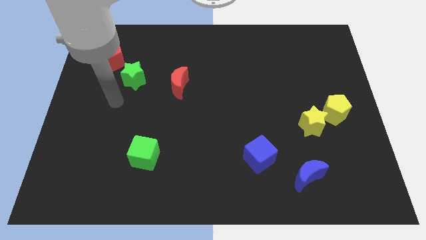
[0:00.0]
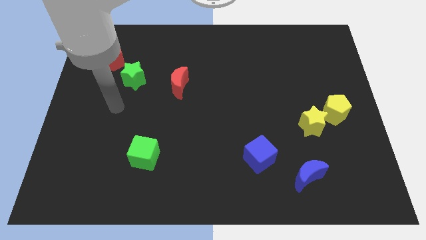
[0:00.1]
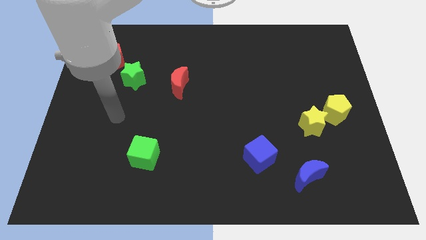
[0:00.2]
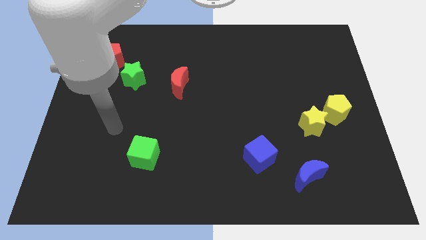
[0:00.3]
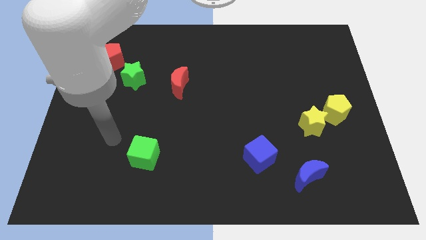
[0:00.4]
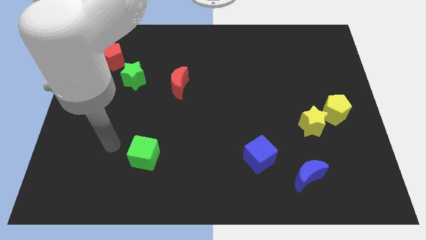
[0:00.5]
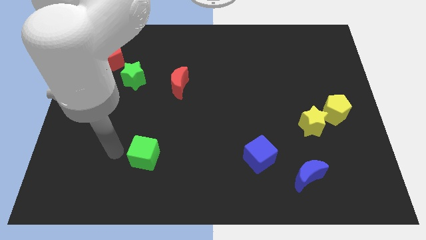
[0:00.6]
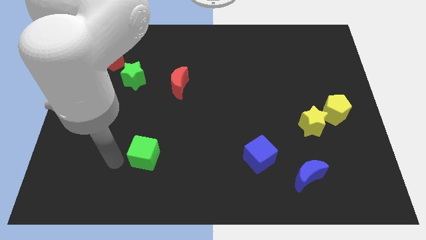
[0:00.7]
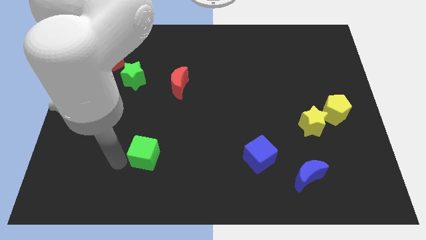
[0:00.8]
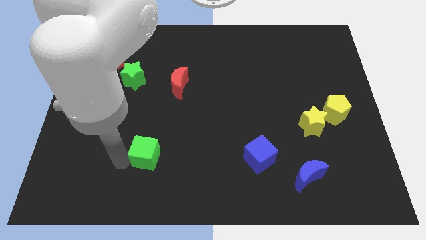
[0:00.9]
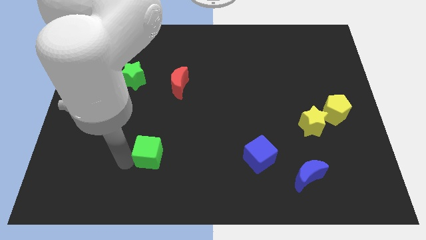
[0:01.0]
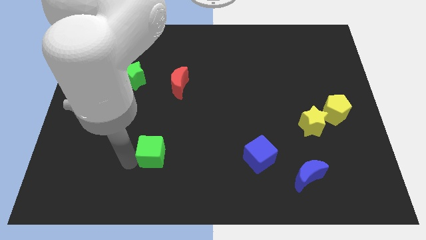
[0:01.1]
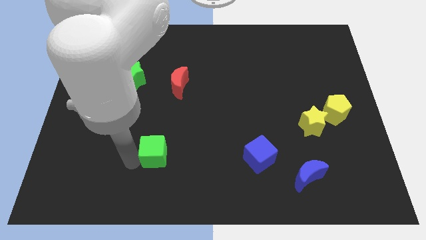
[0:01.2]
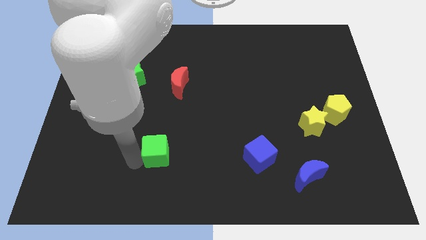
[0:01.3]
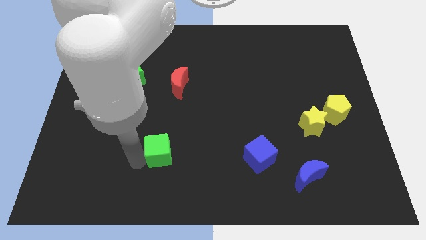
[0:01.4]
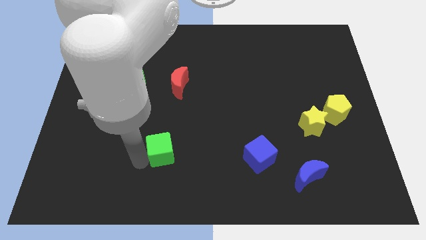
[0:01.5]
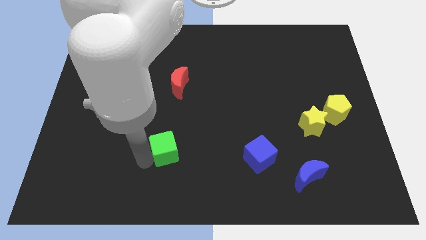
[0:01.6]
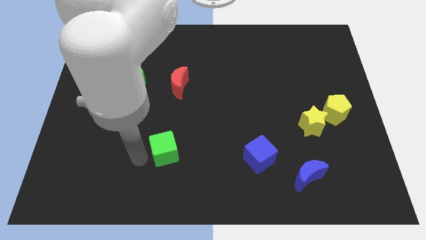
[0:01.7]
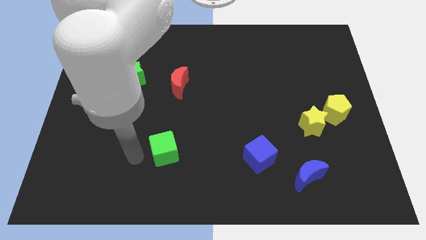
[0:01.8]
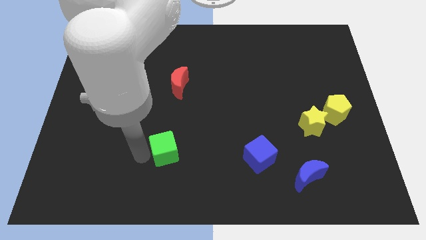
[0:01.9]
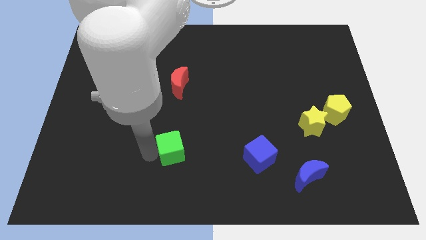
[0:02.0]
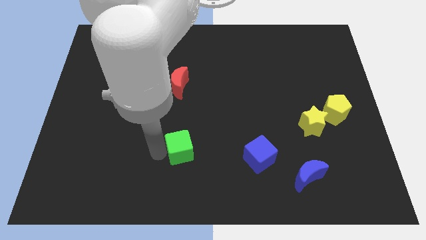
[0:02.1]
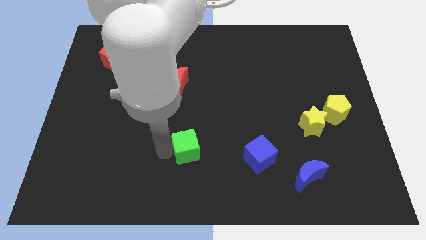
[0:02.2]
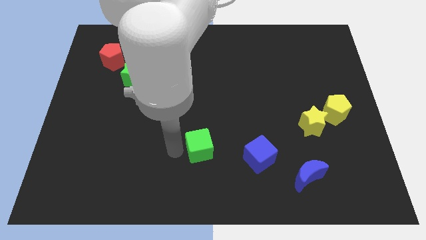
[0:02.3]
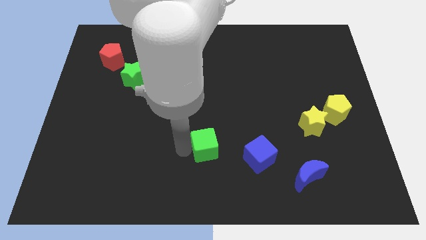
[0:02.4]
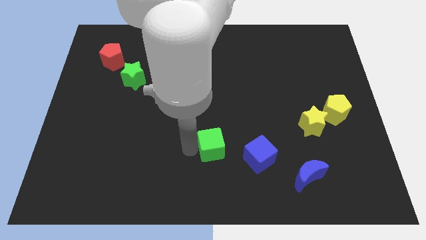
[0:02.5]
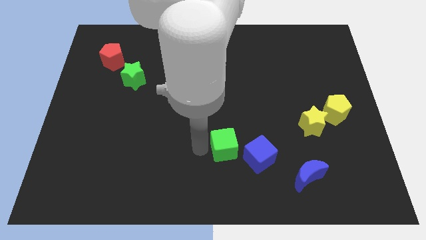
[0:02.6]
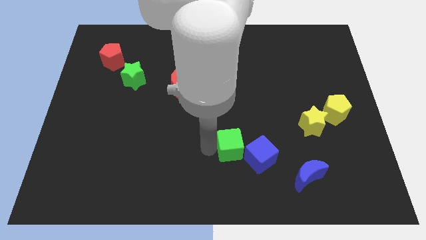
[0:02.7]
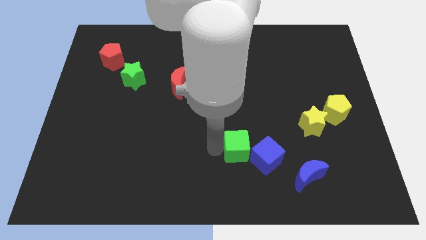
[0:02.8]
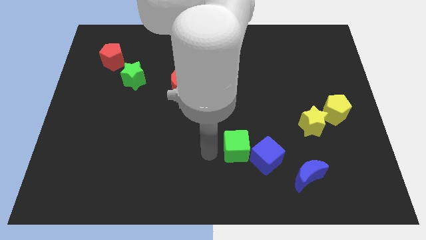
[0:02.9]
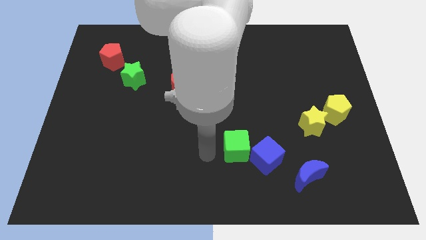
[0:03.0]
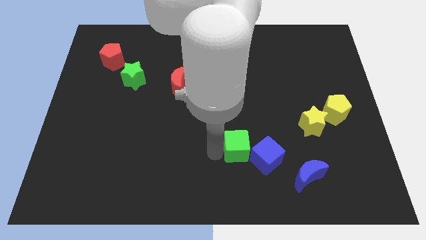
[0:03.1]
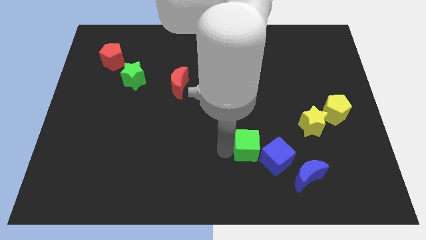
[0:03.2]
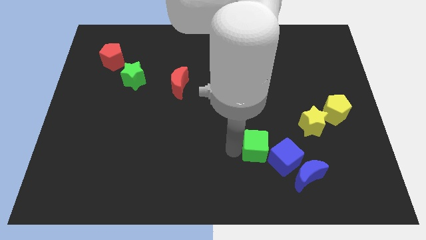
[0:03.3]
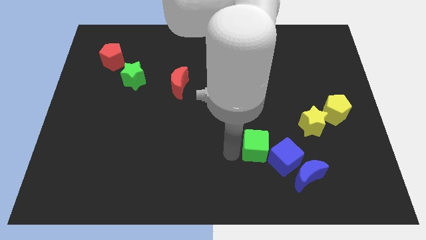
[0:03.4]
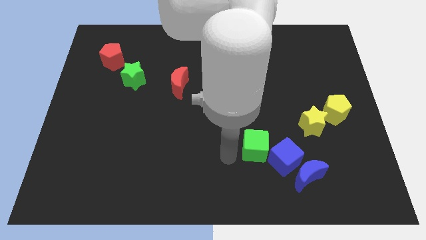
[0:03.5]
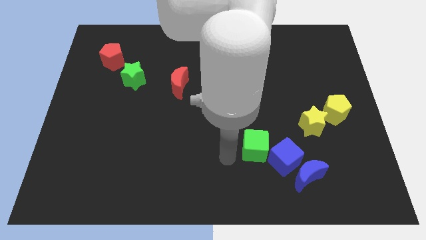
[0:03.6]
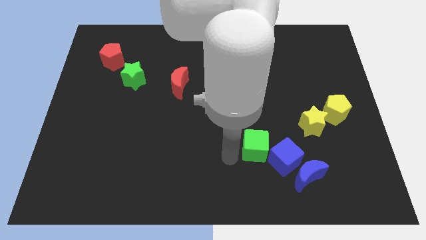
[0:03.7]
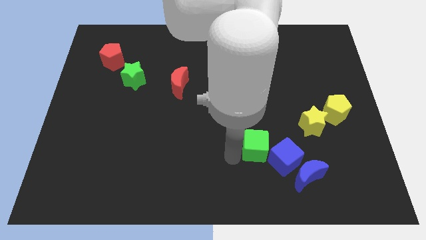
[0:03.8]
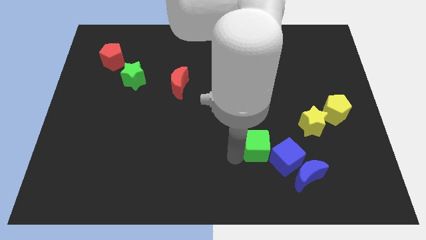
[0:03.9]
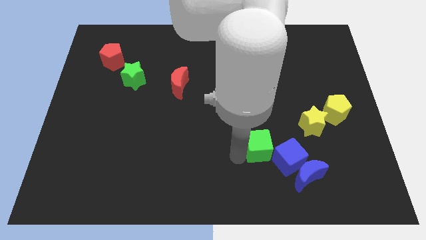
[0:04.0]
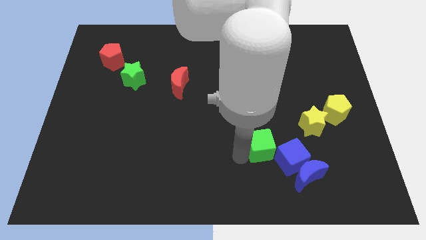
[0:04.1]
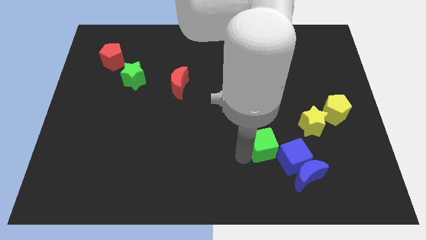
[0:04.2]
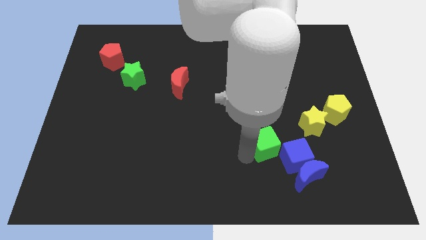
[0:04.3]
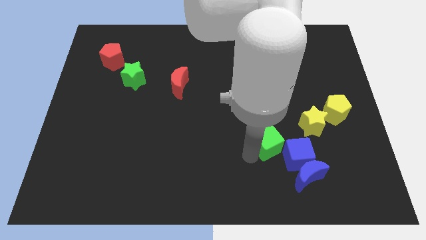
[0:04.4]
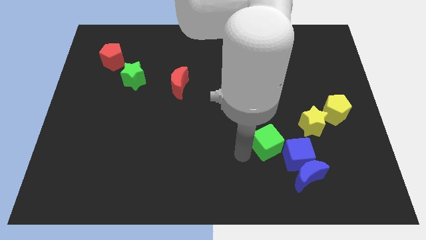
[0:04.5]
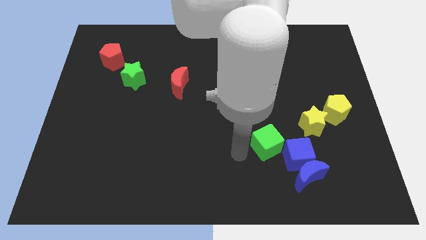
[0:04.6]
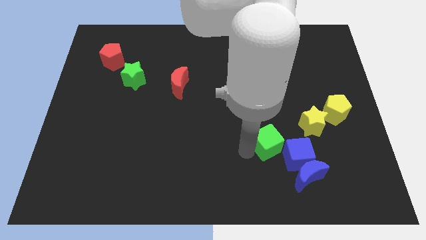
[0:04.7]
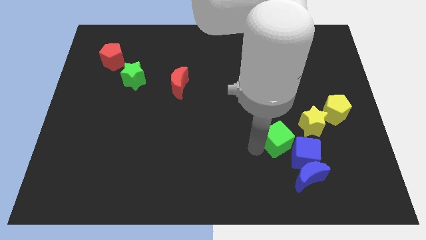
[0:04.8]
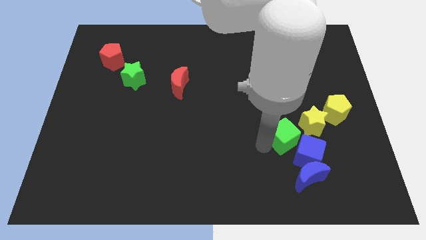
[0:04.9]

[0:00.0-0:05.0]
move the green cube above the blue moon
